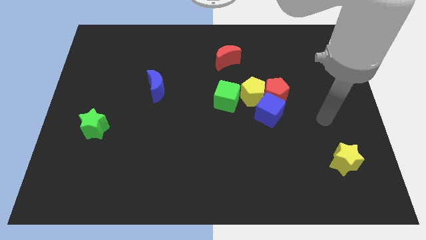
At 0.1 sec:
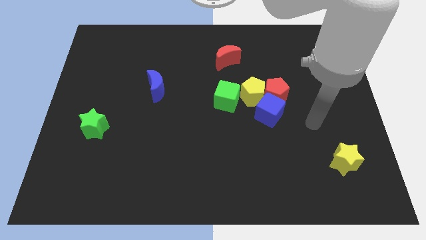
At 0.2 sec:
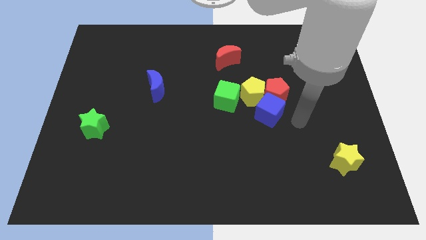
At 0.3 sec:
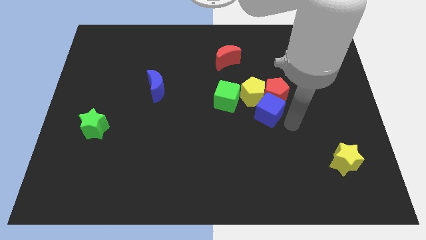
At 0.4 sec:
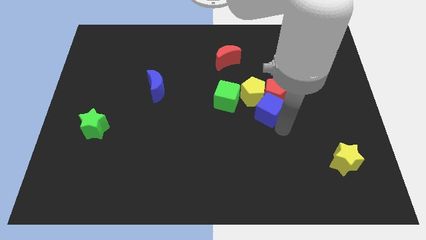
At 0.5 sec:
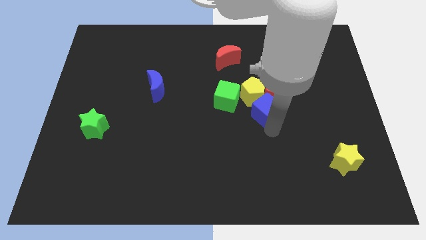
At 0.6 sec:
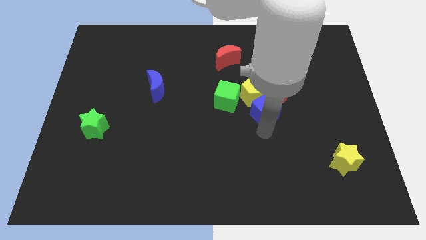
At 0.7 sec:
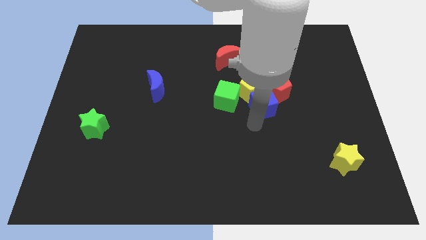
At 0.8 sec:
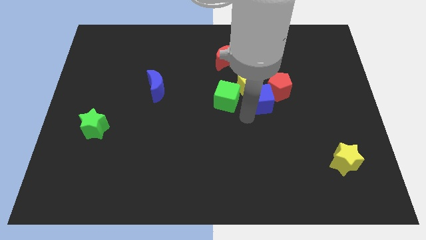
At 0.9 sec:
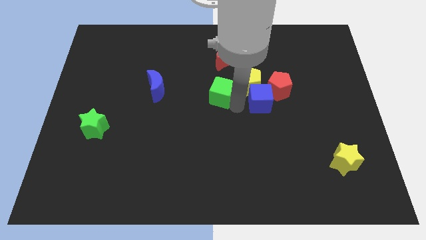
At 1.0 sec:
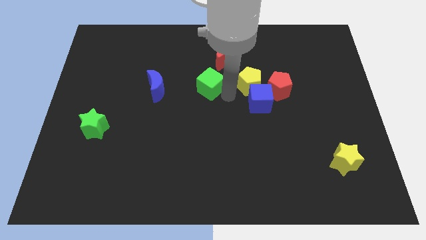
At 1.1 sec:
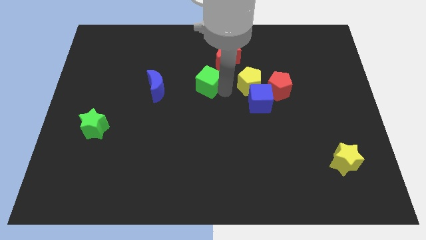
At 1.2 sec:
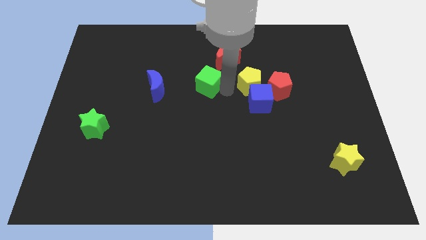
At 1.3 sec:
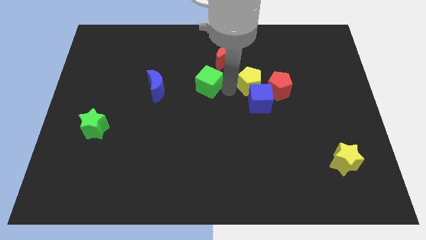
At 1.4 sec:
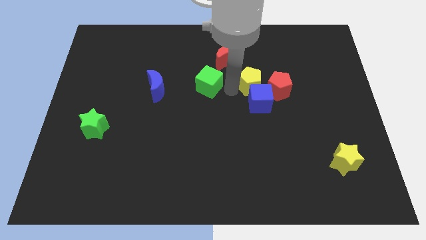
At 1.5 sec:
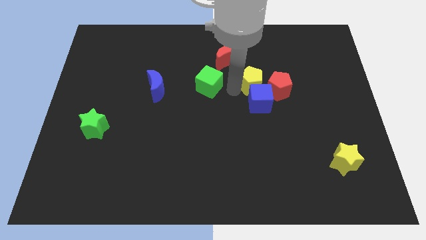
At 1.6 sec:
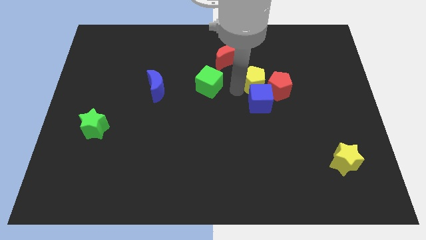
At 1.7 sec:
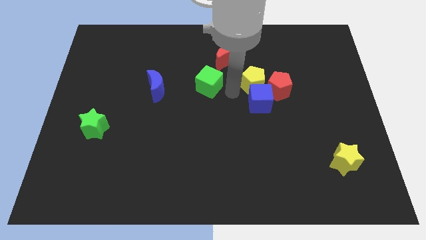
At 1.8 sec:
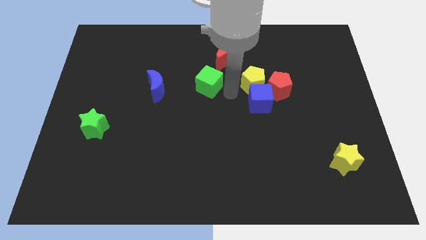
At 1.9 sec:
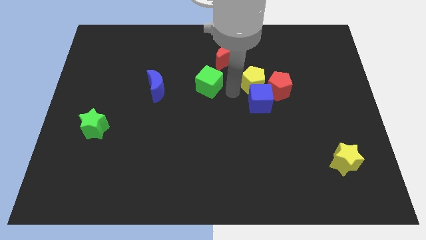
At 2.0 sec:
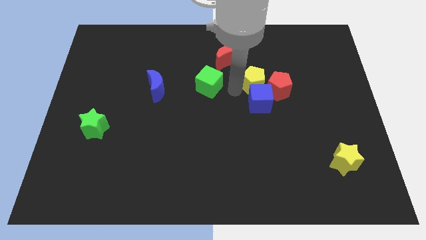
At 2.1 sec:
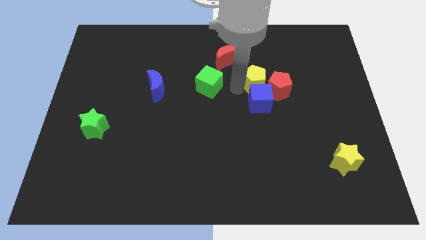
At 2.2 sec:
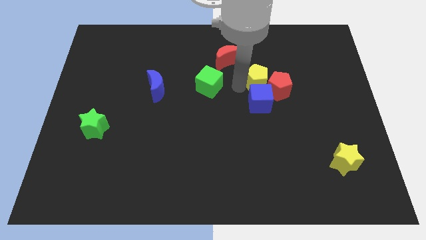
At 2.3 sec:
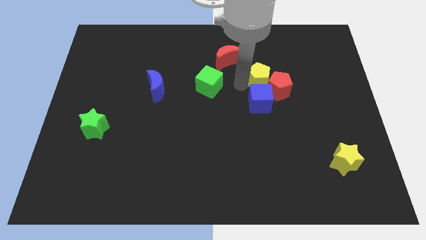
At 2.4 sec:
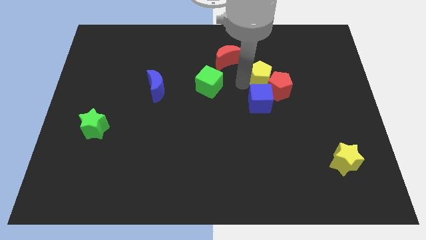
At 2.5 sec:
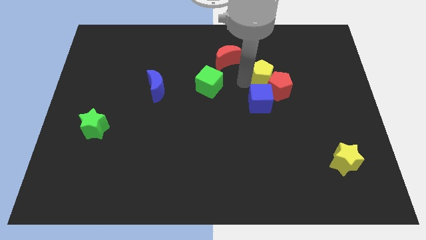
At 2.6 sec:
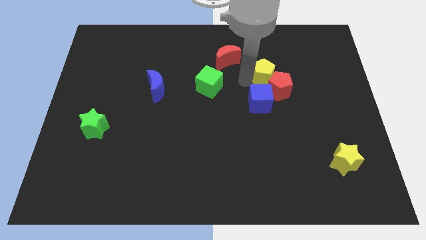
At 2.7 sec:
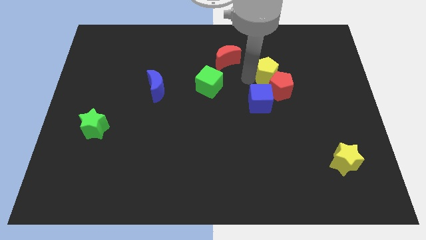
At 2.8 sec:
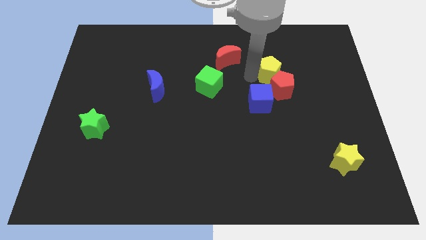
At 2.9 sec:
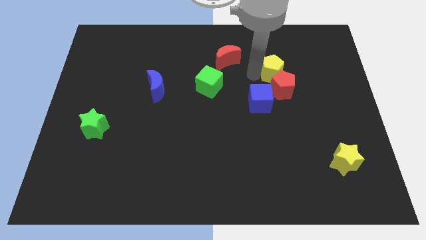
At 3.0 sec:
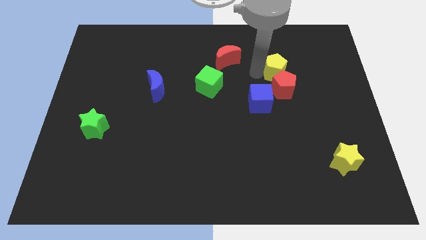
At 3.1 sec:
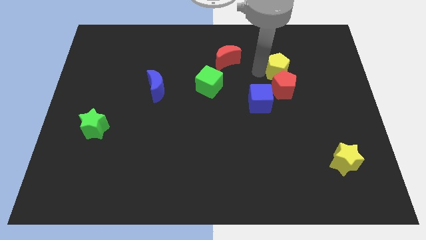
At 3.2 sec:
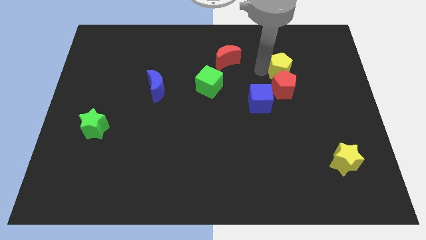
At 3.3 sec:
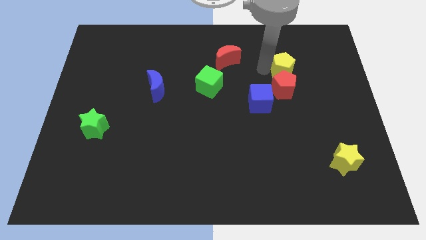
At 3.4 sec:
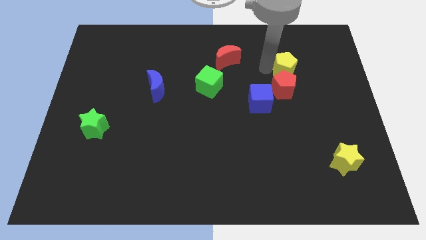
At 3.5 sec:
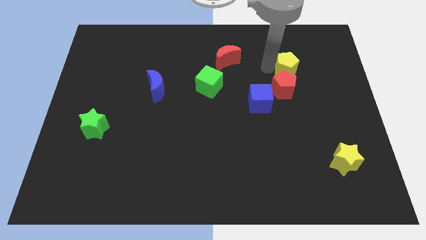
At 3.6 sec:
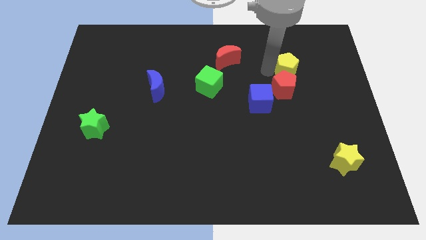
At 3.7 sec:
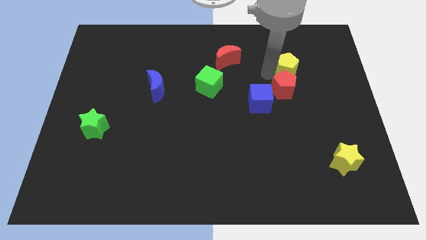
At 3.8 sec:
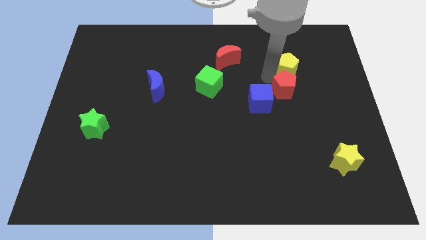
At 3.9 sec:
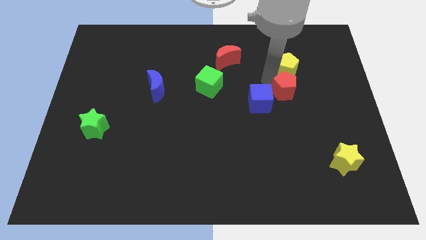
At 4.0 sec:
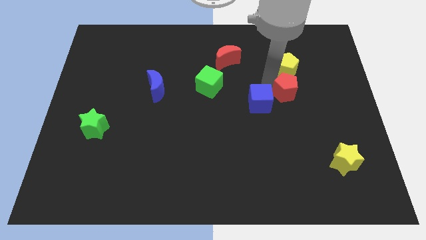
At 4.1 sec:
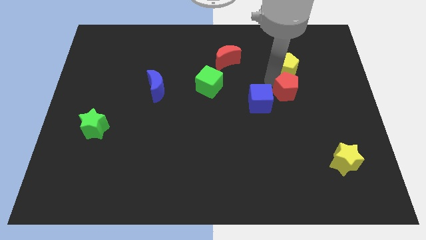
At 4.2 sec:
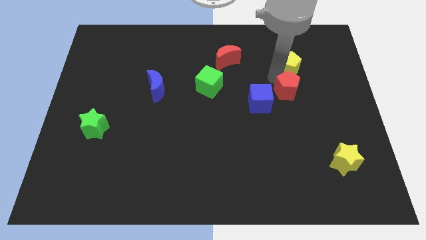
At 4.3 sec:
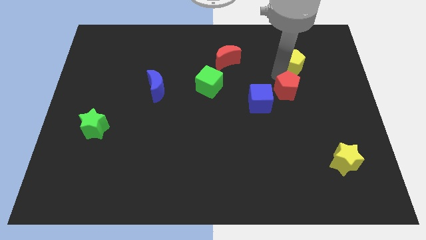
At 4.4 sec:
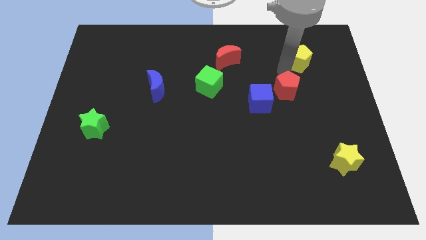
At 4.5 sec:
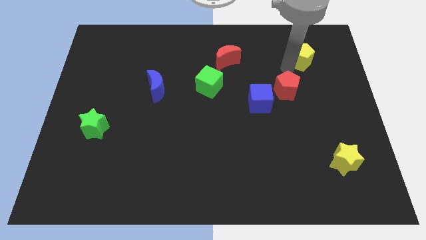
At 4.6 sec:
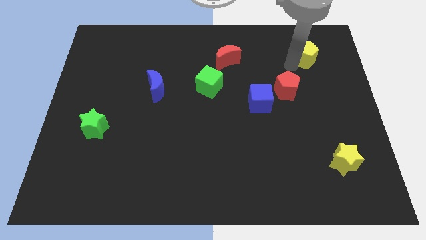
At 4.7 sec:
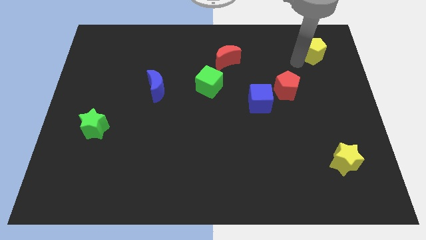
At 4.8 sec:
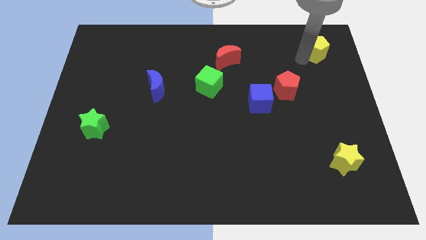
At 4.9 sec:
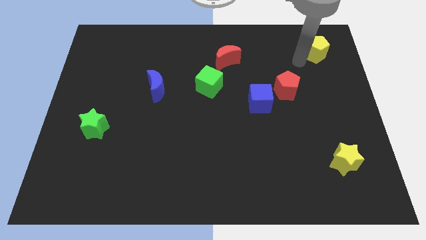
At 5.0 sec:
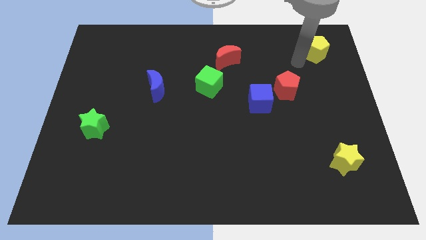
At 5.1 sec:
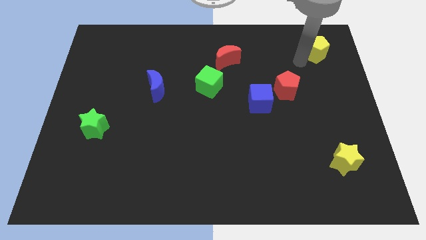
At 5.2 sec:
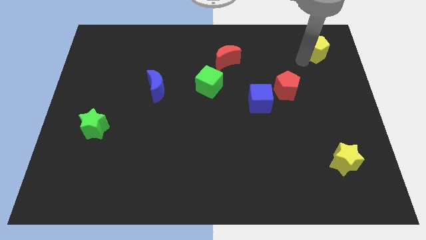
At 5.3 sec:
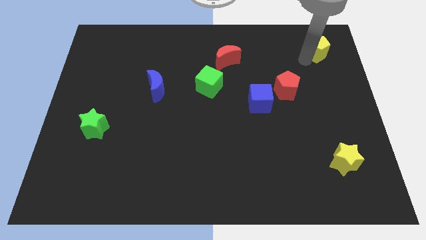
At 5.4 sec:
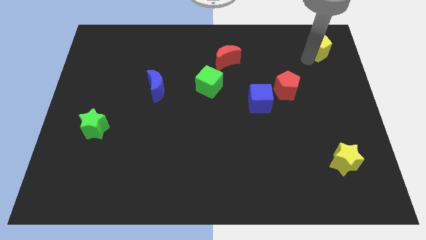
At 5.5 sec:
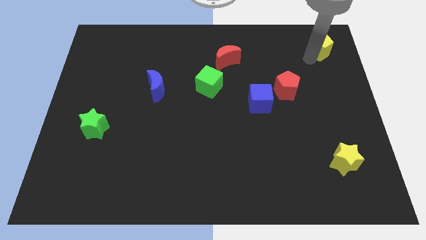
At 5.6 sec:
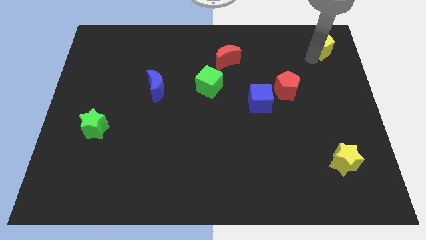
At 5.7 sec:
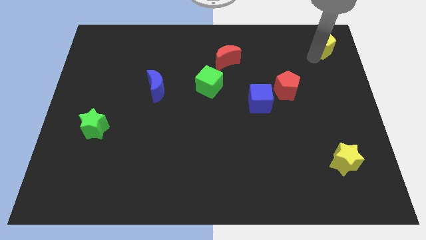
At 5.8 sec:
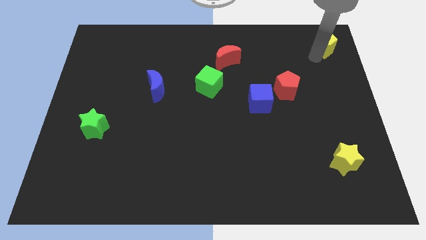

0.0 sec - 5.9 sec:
slide the yellow pentagon to the top right
